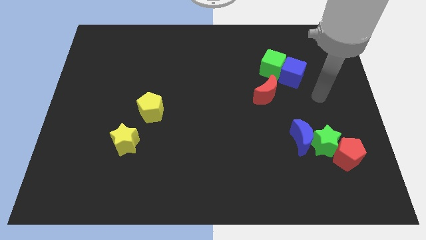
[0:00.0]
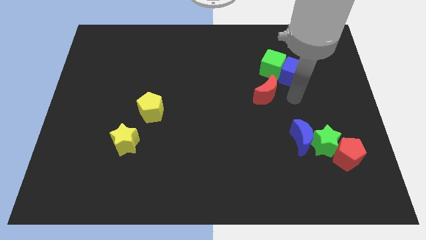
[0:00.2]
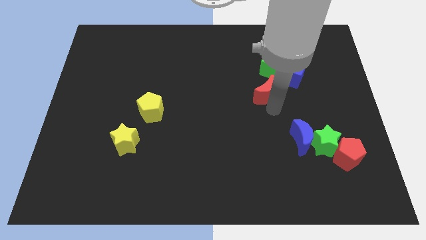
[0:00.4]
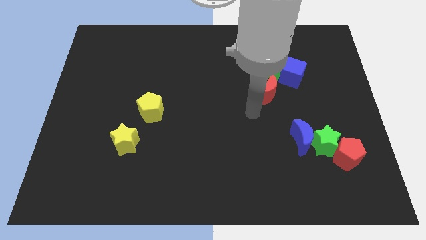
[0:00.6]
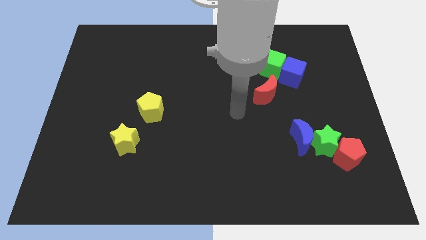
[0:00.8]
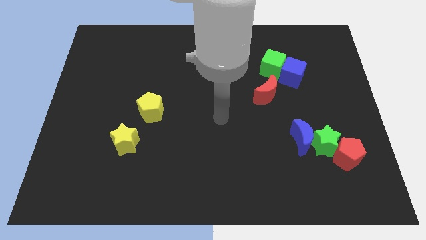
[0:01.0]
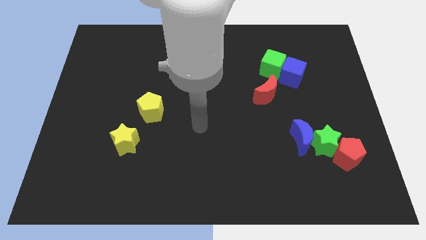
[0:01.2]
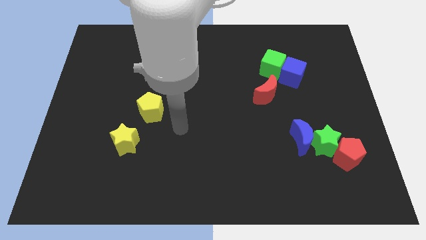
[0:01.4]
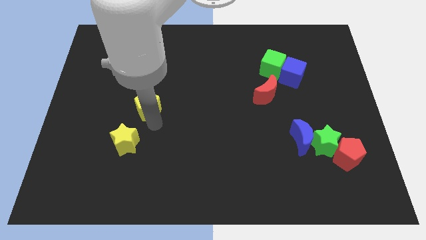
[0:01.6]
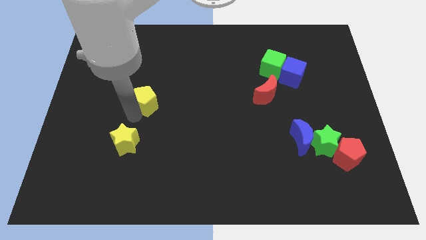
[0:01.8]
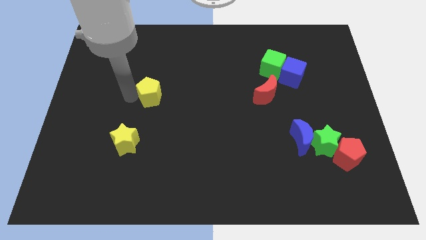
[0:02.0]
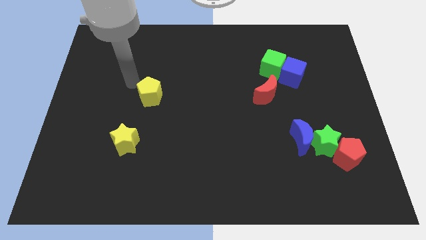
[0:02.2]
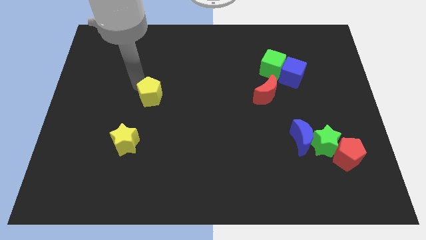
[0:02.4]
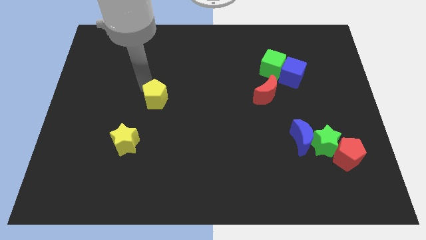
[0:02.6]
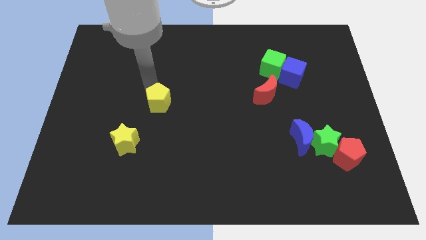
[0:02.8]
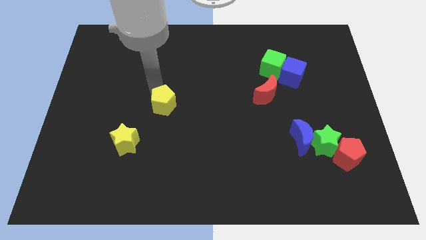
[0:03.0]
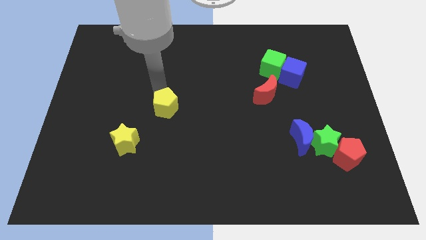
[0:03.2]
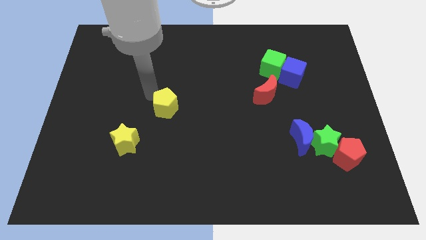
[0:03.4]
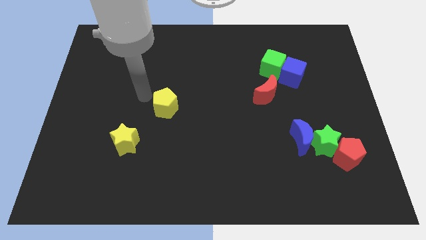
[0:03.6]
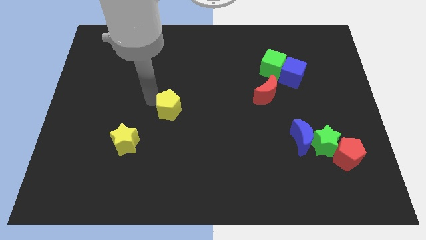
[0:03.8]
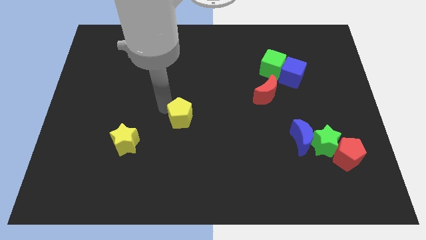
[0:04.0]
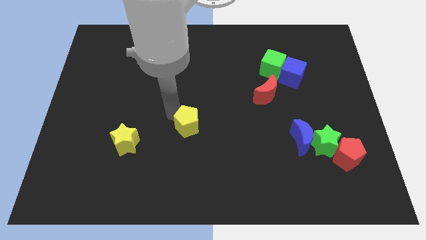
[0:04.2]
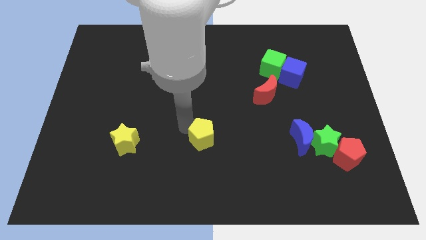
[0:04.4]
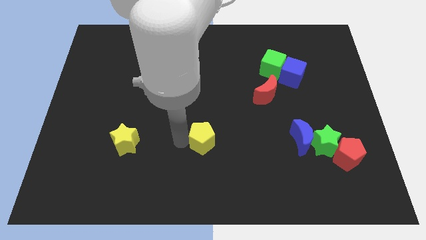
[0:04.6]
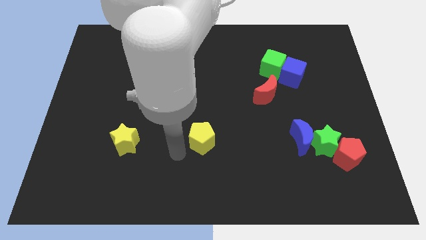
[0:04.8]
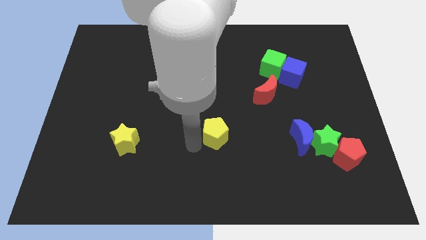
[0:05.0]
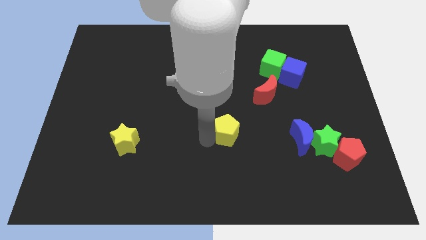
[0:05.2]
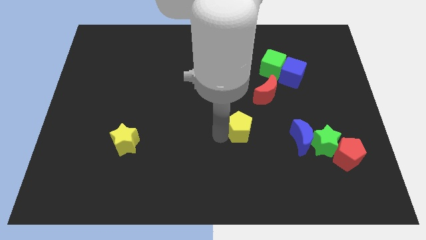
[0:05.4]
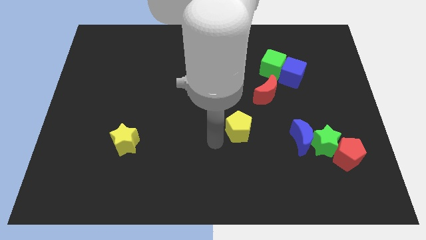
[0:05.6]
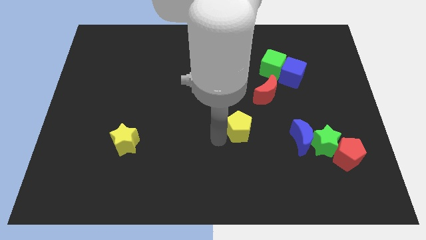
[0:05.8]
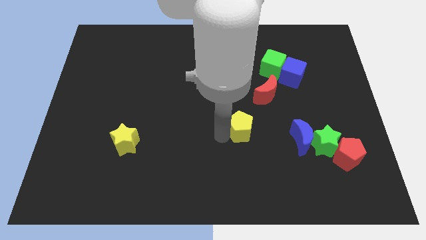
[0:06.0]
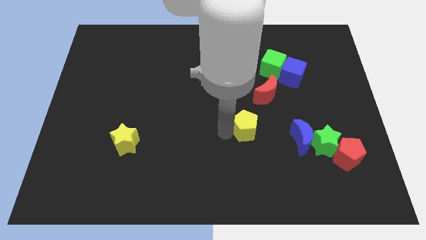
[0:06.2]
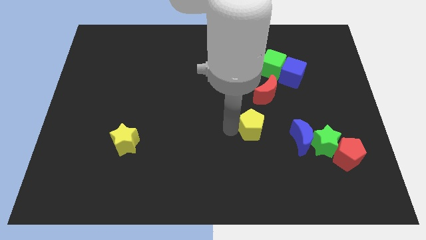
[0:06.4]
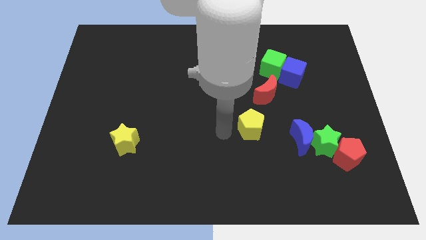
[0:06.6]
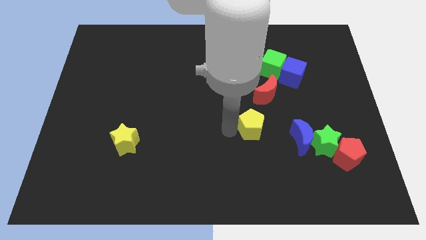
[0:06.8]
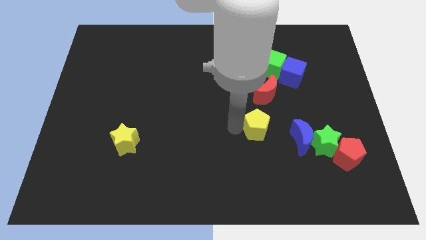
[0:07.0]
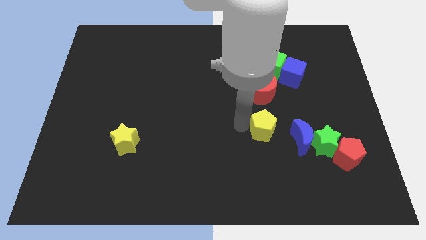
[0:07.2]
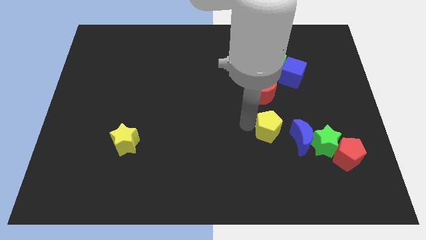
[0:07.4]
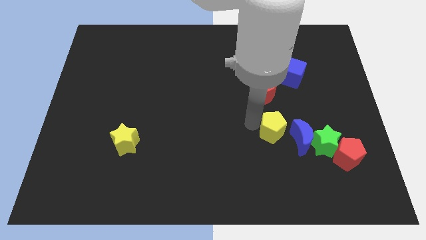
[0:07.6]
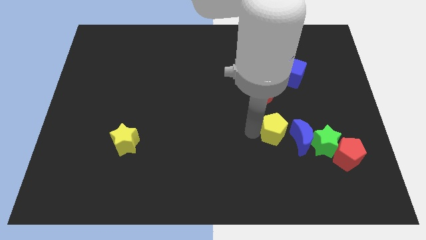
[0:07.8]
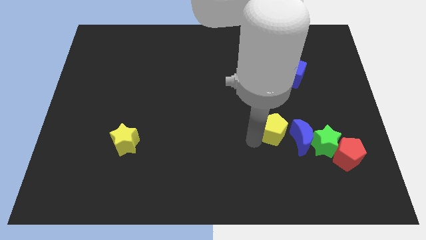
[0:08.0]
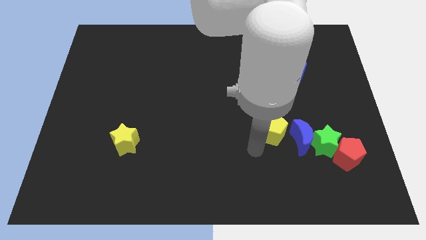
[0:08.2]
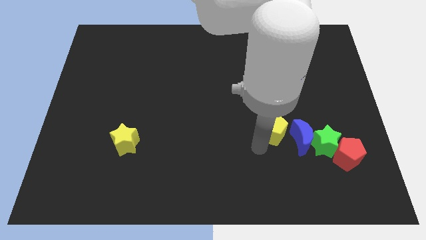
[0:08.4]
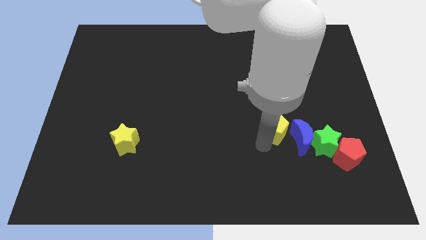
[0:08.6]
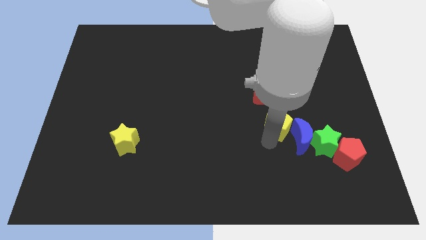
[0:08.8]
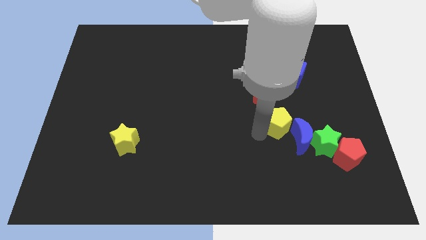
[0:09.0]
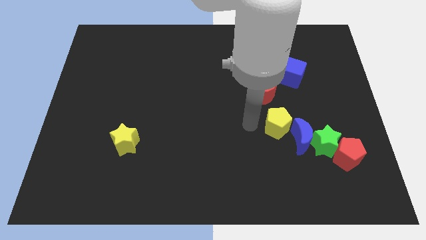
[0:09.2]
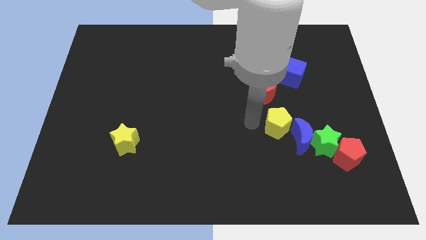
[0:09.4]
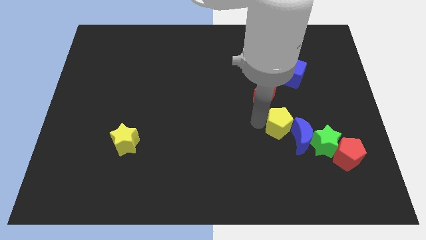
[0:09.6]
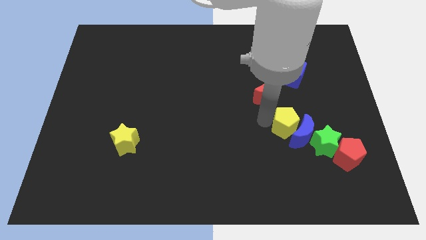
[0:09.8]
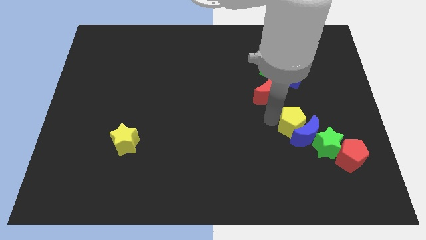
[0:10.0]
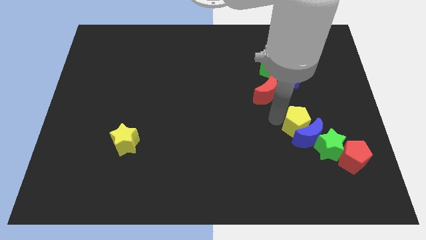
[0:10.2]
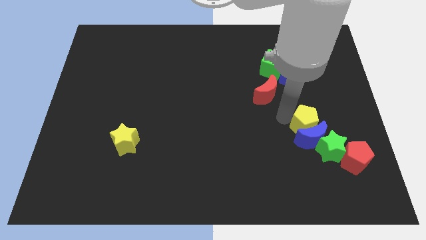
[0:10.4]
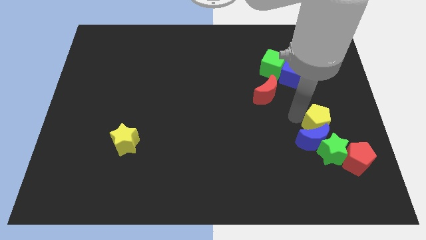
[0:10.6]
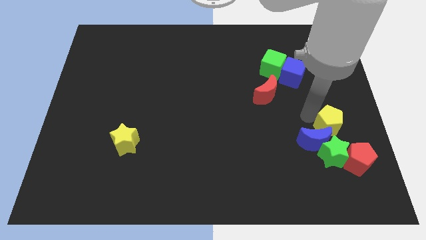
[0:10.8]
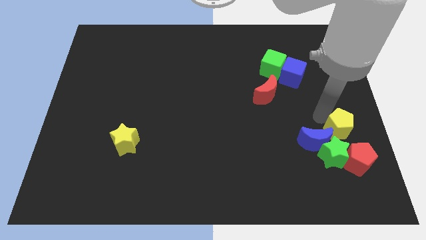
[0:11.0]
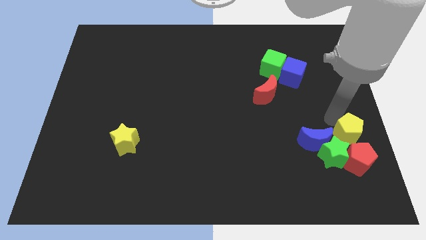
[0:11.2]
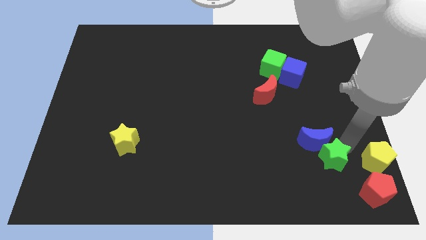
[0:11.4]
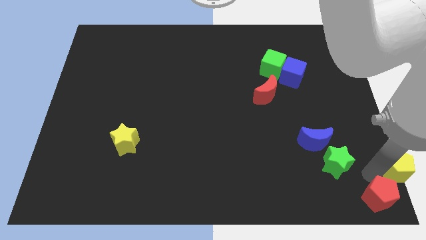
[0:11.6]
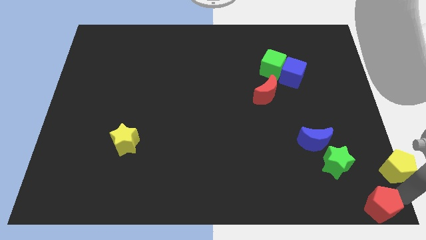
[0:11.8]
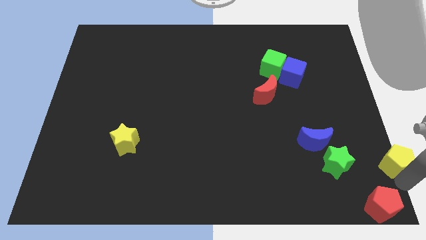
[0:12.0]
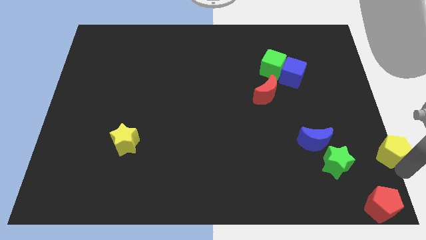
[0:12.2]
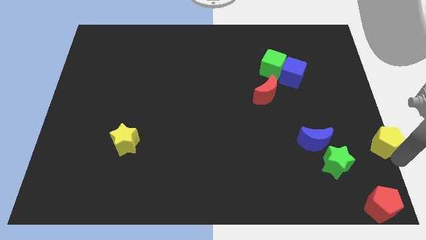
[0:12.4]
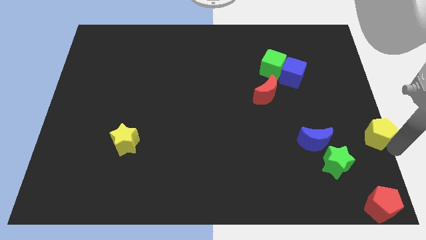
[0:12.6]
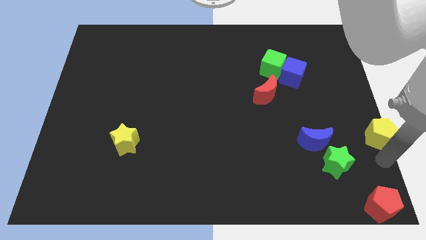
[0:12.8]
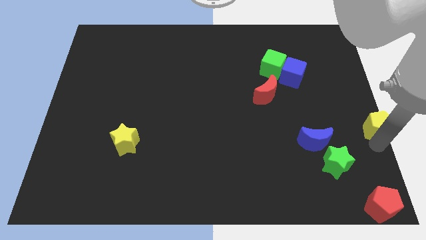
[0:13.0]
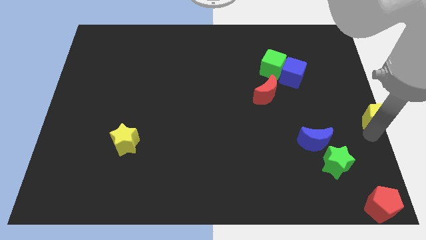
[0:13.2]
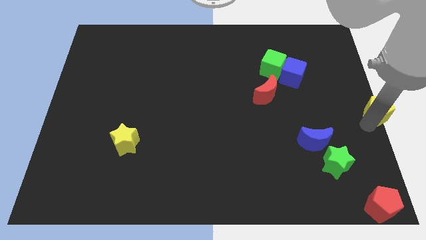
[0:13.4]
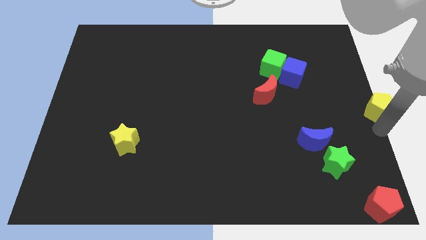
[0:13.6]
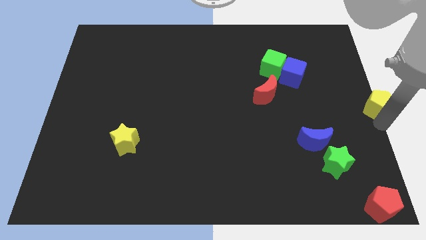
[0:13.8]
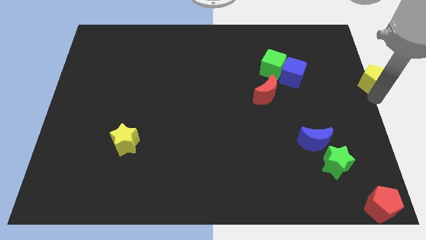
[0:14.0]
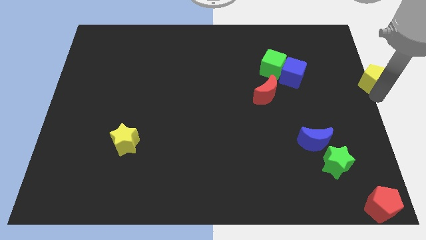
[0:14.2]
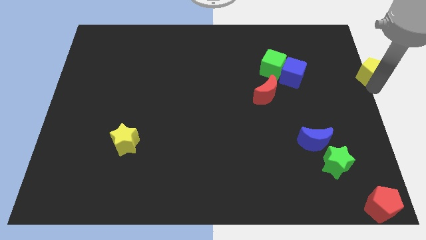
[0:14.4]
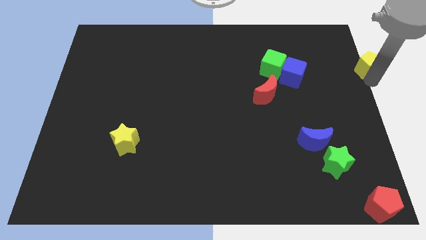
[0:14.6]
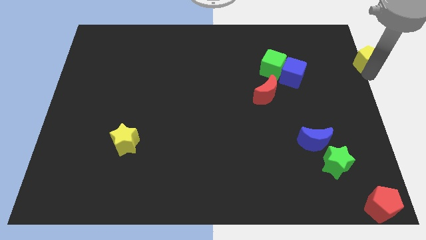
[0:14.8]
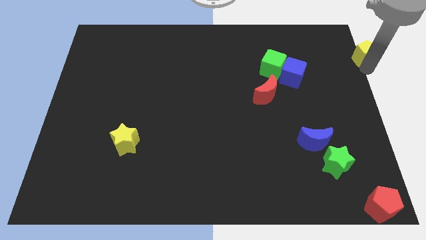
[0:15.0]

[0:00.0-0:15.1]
put the yellow pentagon to the top right of the board
